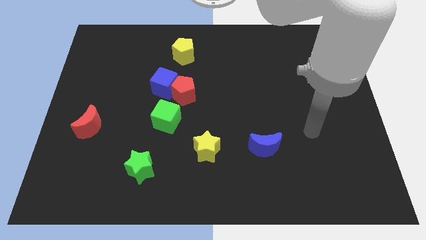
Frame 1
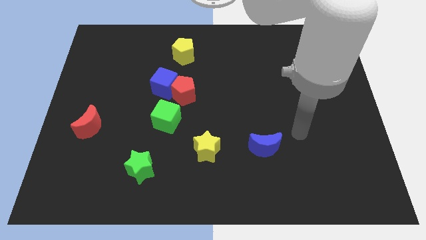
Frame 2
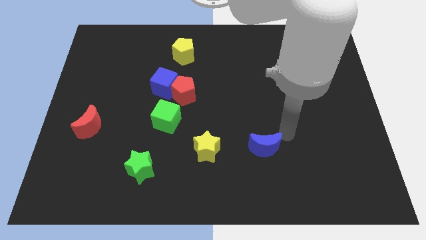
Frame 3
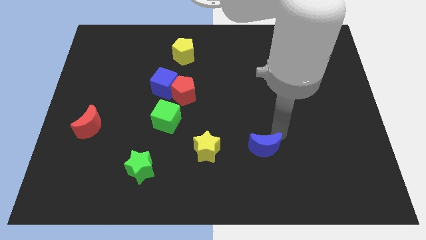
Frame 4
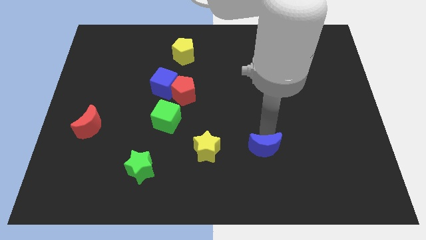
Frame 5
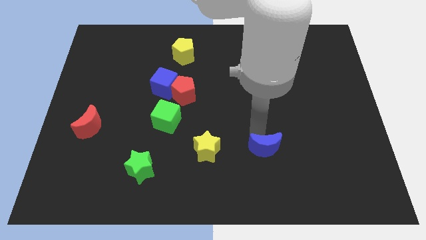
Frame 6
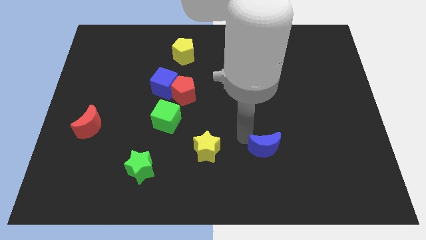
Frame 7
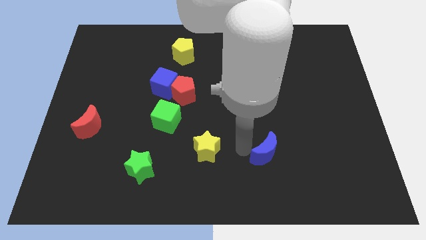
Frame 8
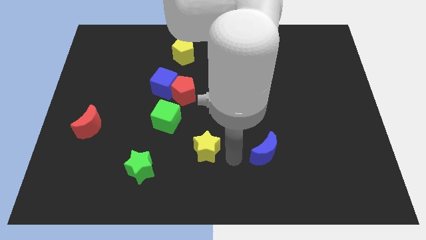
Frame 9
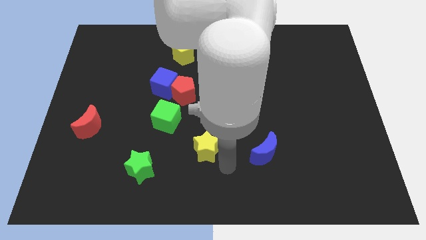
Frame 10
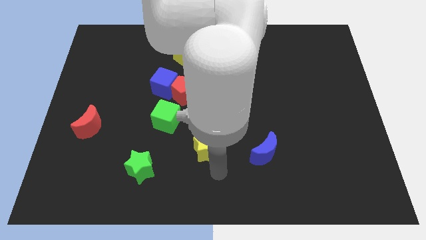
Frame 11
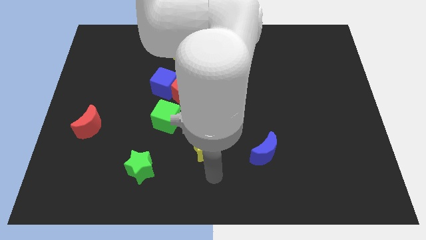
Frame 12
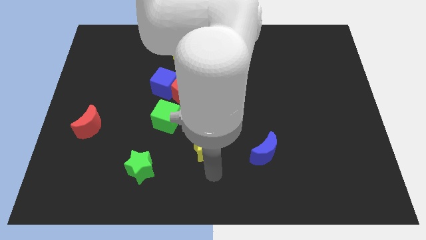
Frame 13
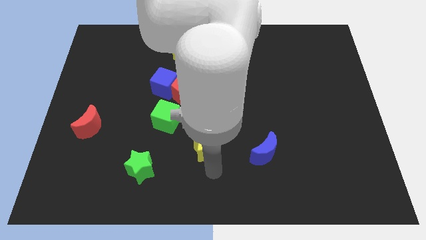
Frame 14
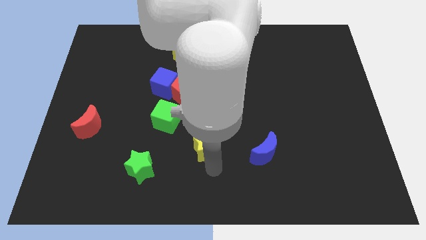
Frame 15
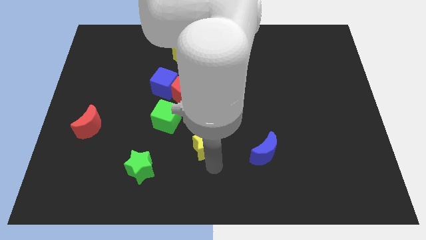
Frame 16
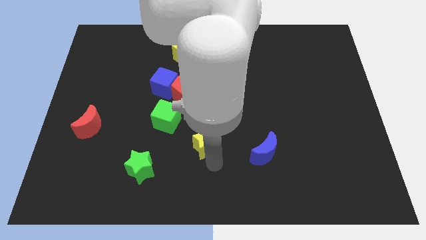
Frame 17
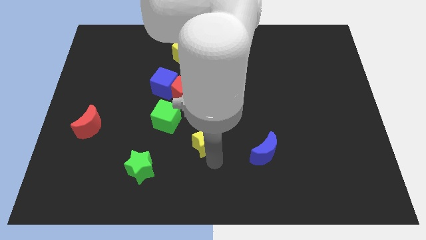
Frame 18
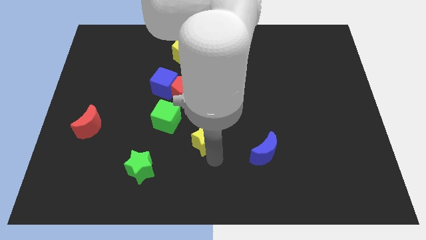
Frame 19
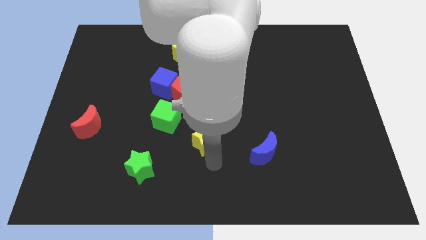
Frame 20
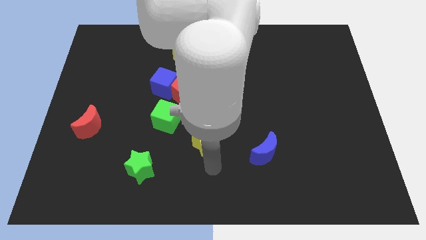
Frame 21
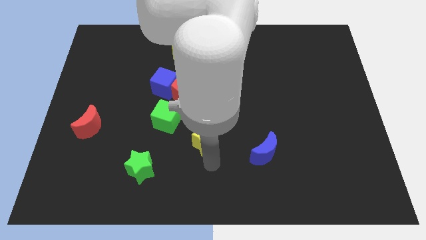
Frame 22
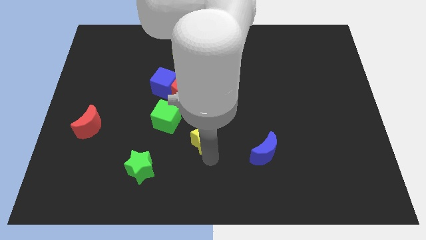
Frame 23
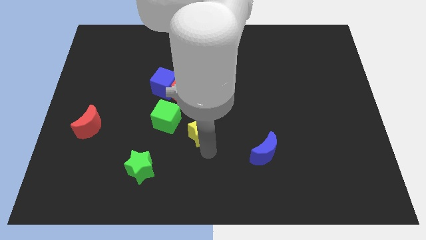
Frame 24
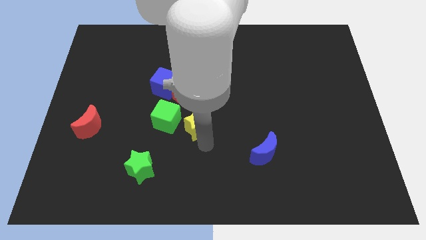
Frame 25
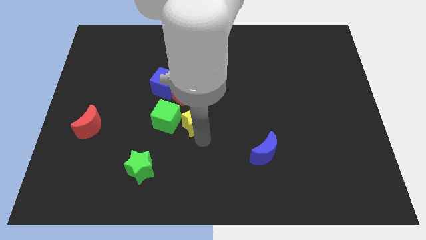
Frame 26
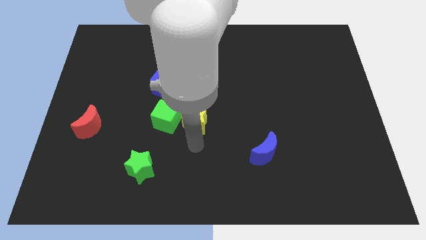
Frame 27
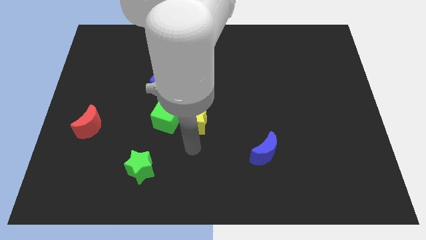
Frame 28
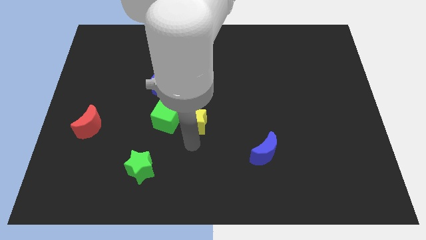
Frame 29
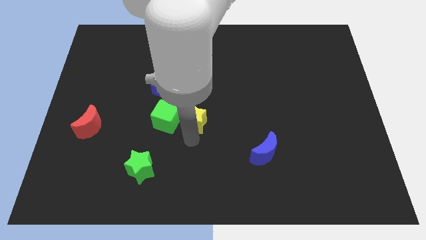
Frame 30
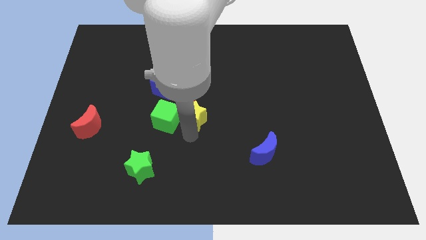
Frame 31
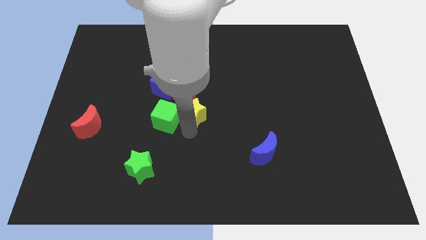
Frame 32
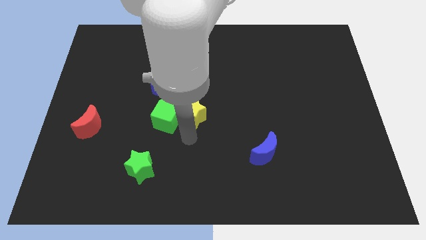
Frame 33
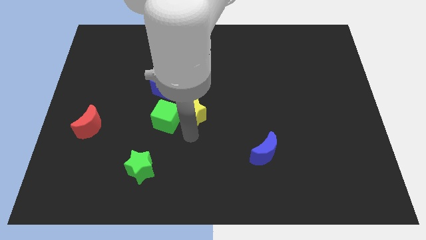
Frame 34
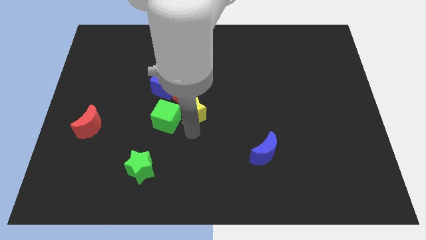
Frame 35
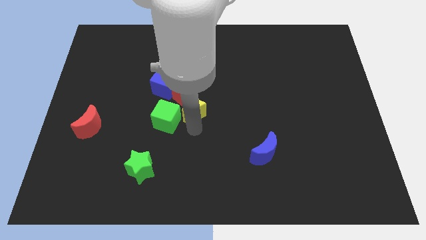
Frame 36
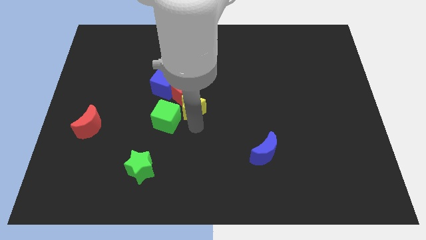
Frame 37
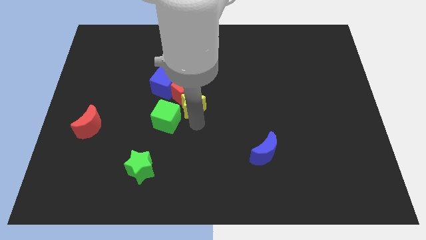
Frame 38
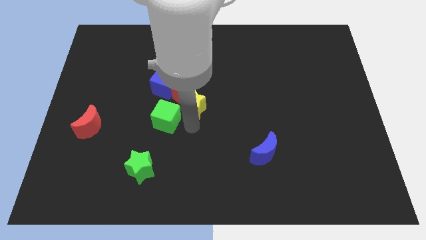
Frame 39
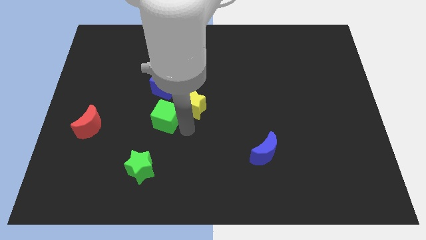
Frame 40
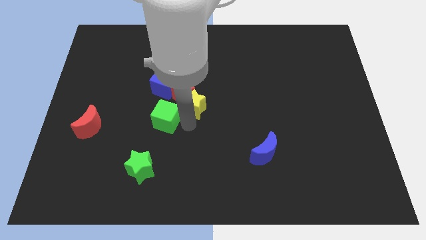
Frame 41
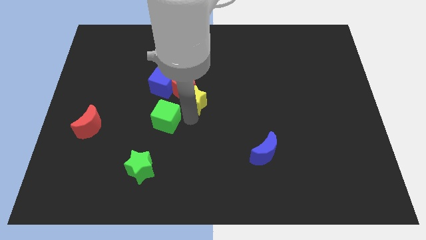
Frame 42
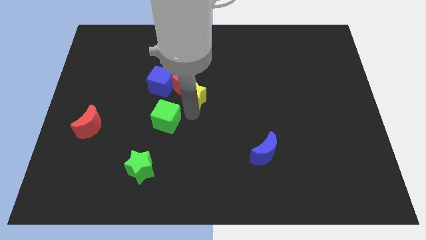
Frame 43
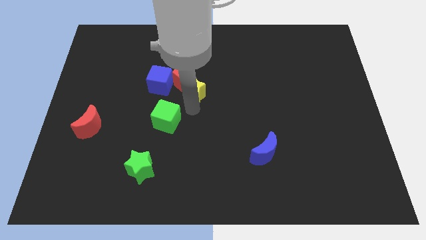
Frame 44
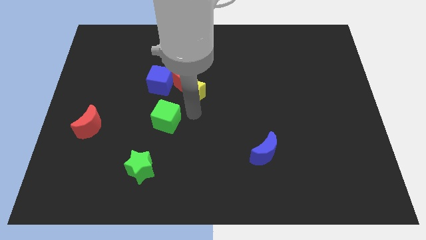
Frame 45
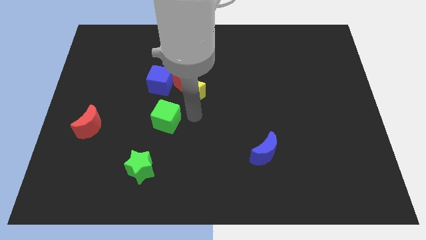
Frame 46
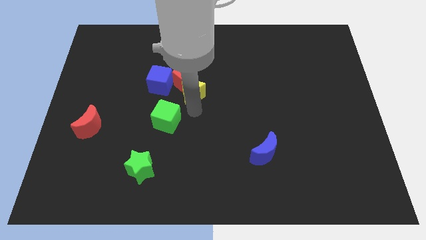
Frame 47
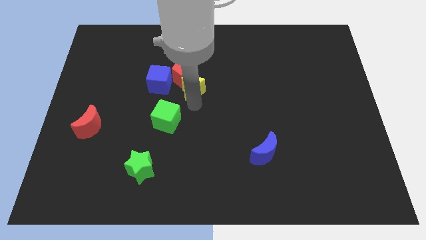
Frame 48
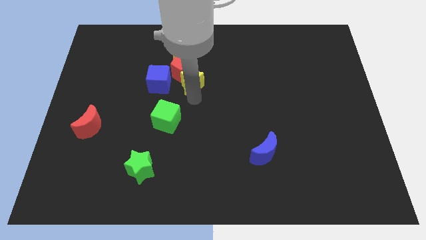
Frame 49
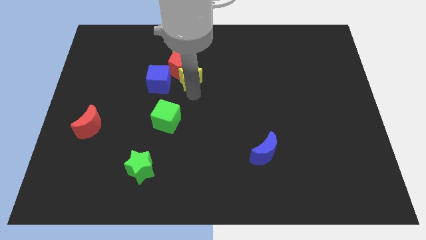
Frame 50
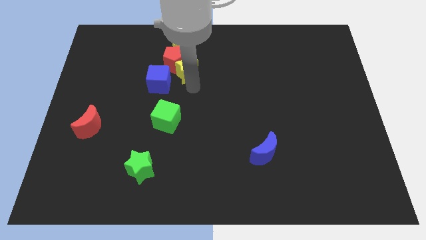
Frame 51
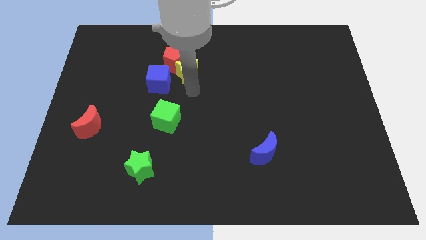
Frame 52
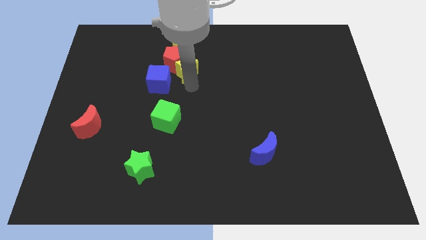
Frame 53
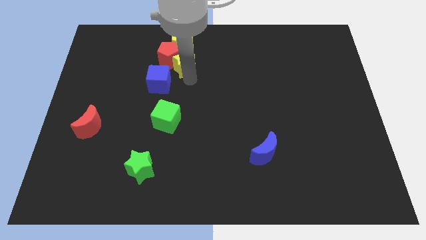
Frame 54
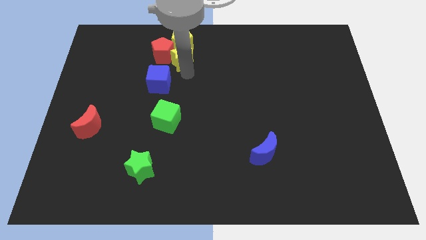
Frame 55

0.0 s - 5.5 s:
move the yellow star close to the yellow pentagon

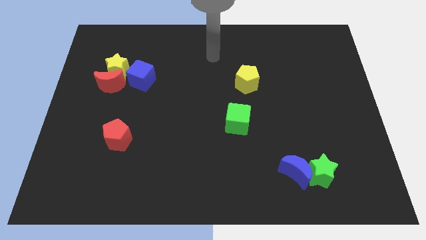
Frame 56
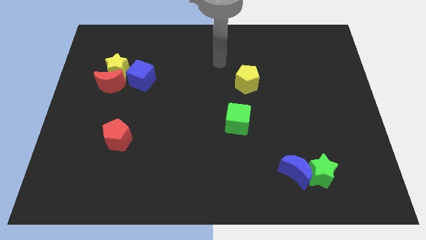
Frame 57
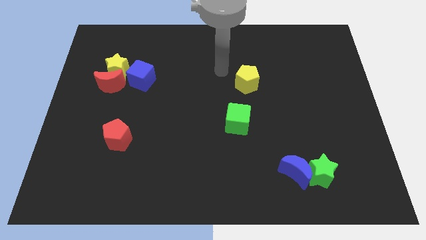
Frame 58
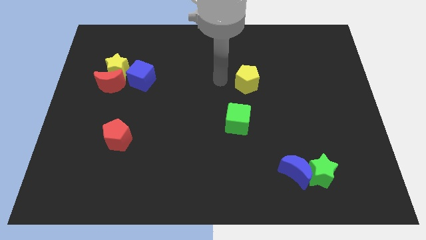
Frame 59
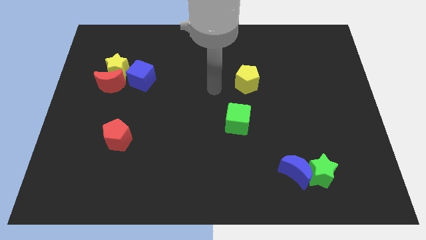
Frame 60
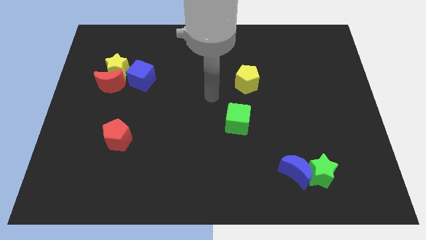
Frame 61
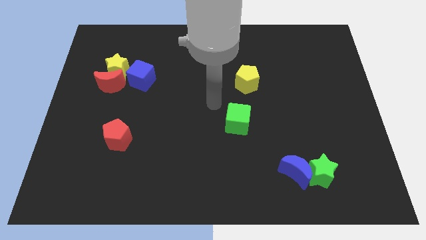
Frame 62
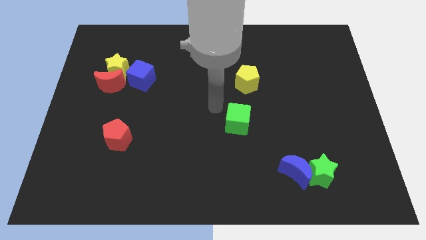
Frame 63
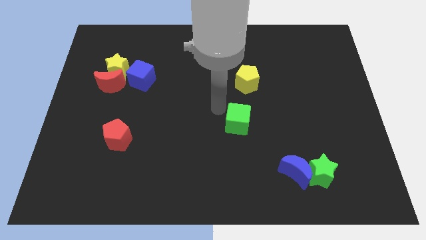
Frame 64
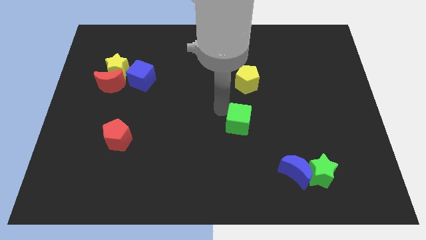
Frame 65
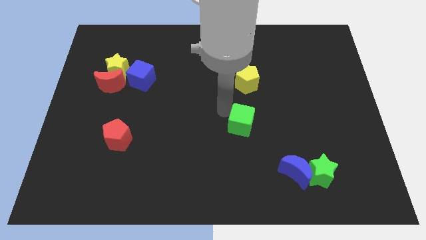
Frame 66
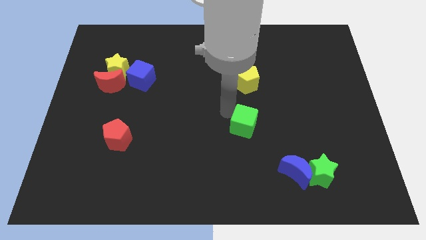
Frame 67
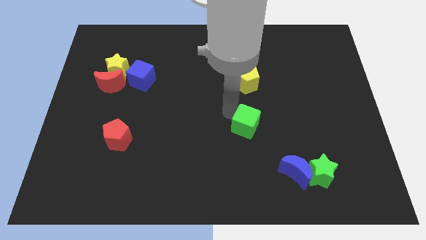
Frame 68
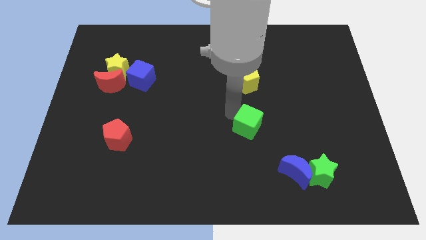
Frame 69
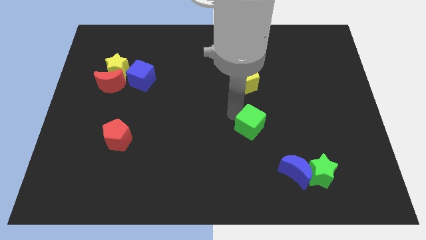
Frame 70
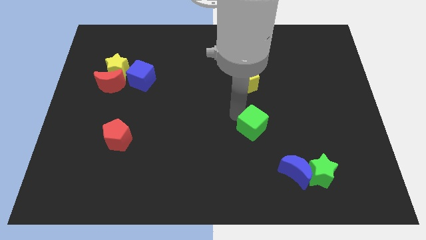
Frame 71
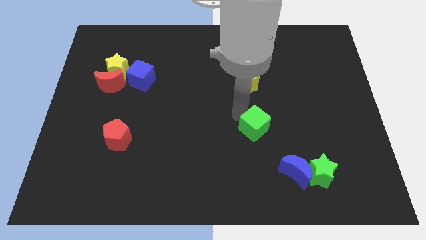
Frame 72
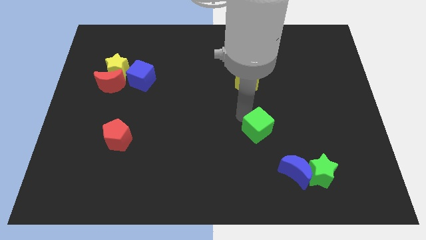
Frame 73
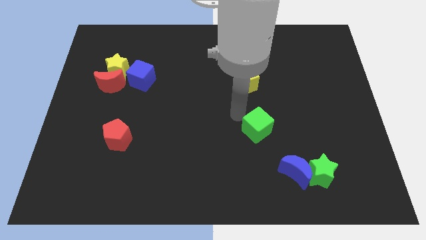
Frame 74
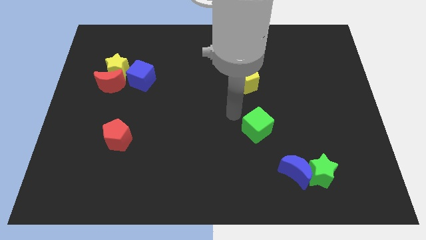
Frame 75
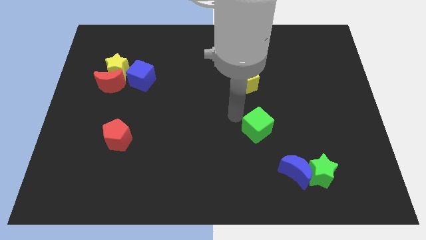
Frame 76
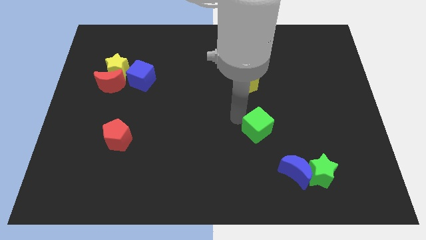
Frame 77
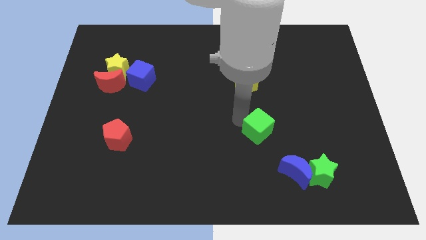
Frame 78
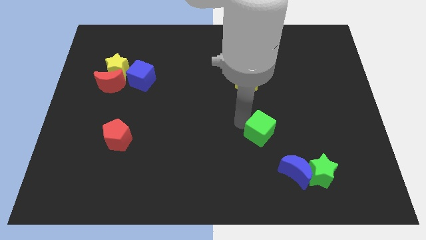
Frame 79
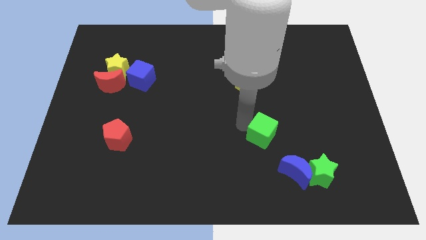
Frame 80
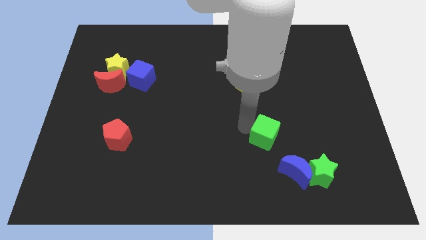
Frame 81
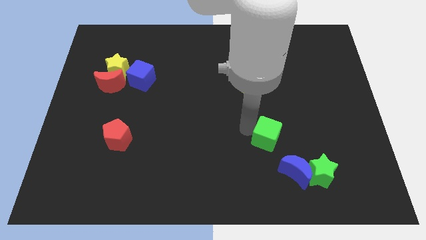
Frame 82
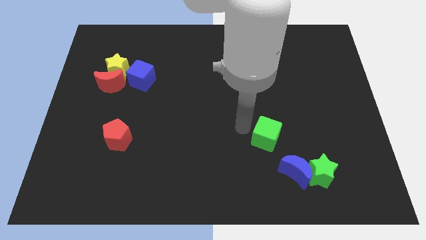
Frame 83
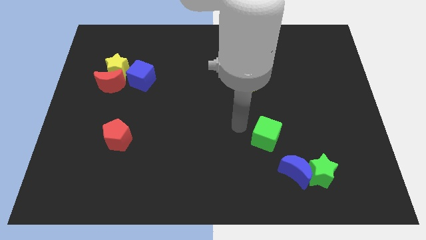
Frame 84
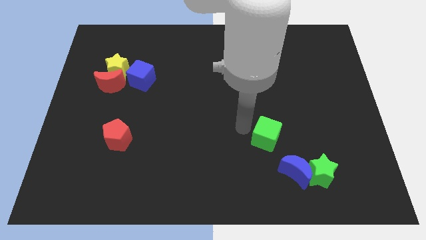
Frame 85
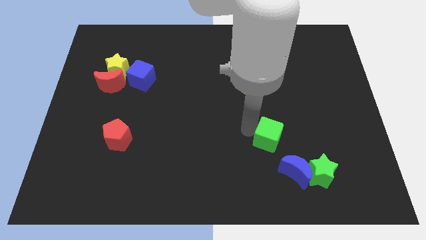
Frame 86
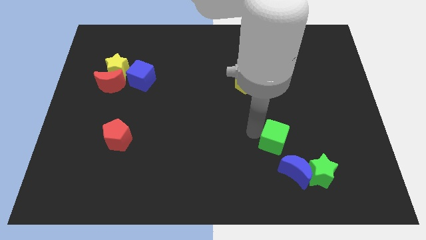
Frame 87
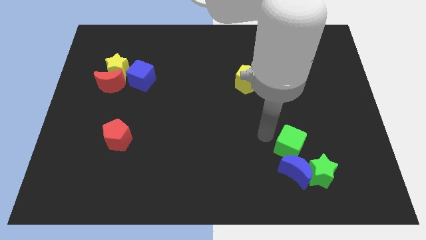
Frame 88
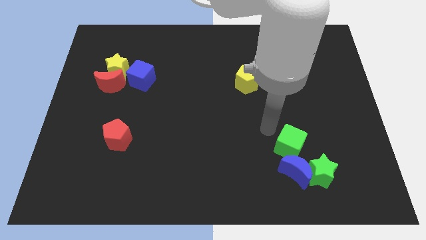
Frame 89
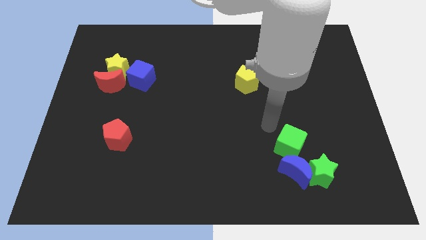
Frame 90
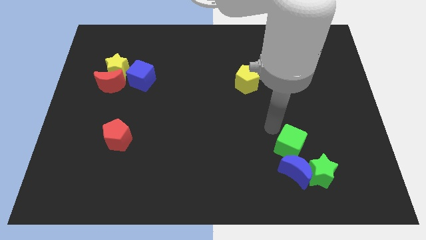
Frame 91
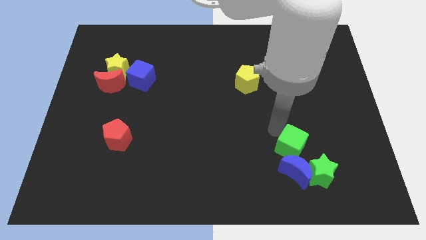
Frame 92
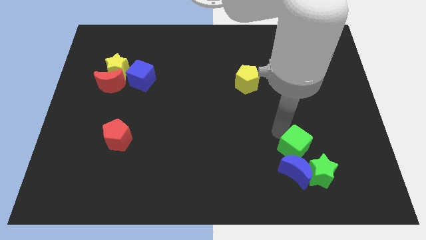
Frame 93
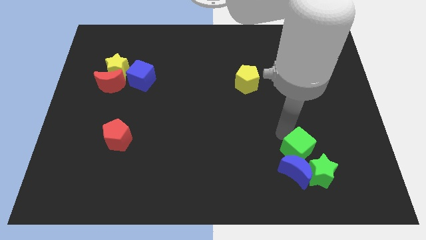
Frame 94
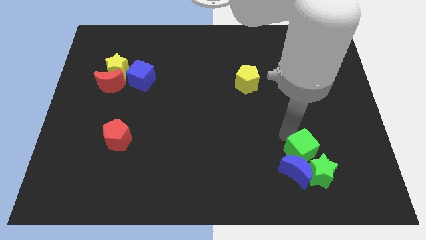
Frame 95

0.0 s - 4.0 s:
slide the green cube towards the green star
